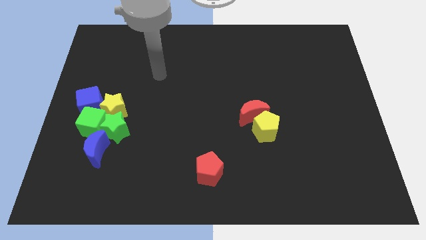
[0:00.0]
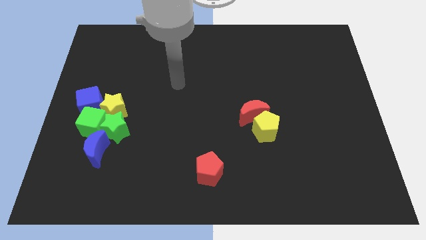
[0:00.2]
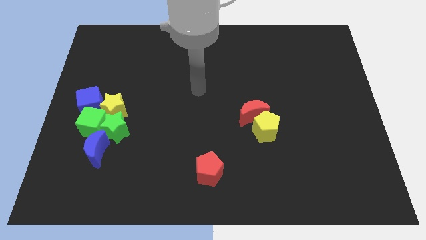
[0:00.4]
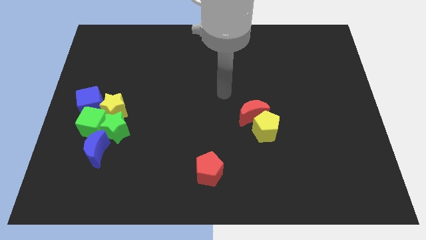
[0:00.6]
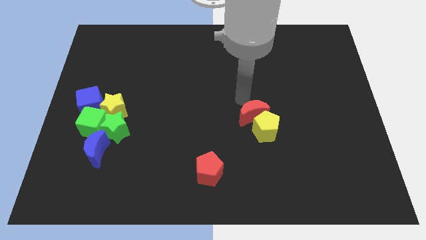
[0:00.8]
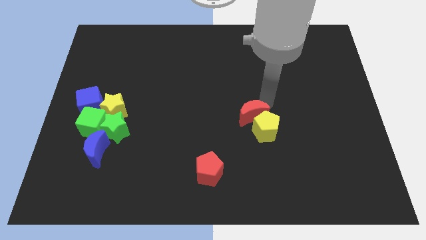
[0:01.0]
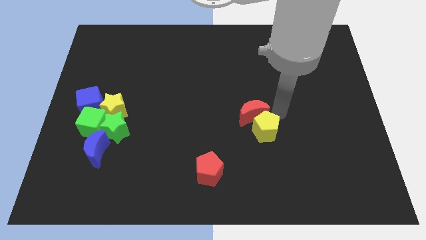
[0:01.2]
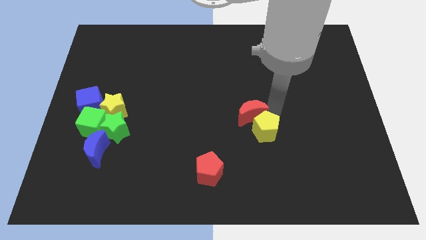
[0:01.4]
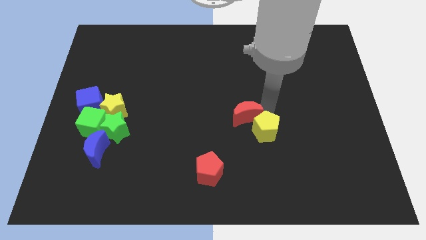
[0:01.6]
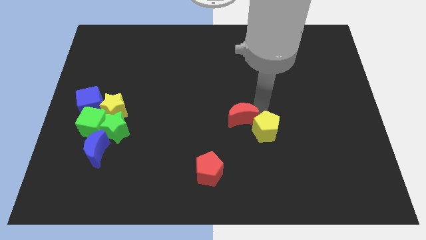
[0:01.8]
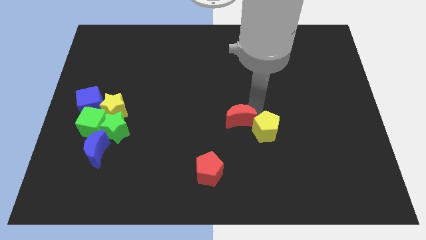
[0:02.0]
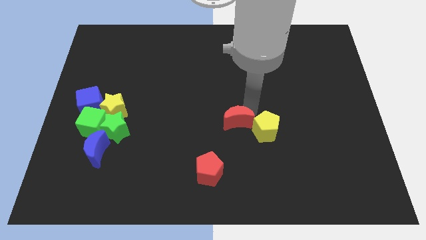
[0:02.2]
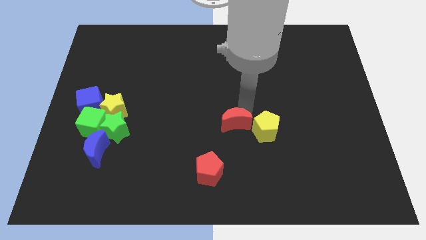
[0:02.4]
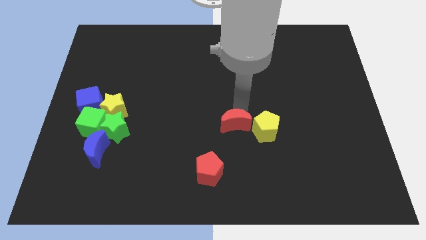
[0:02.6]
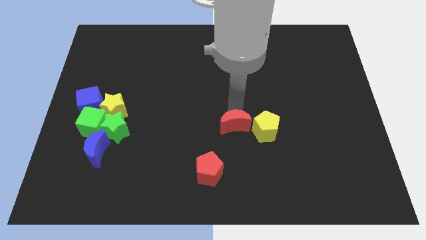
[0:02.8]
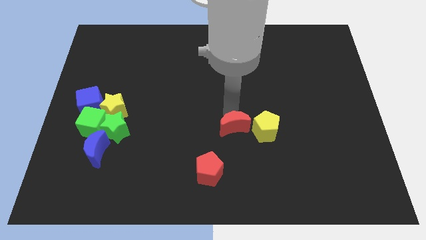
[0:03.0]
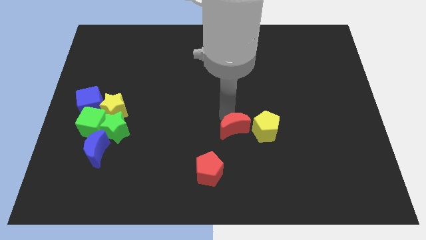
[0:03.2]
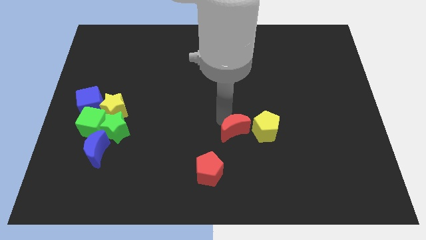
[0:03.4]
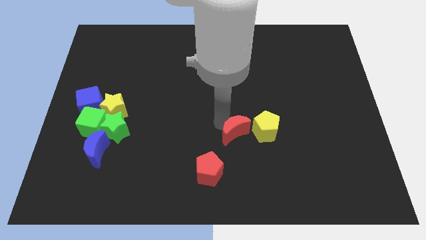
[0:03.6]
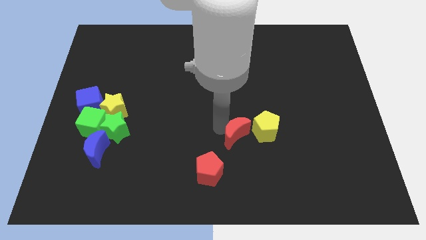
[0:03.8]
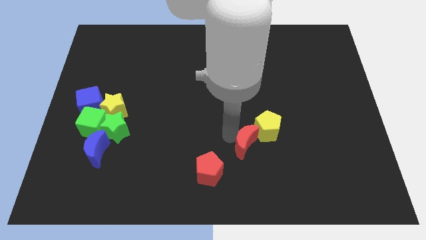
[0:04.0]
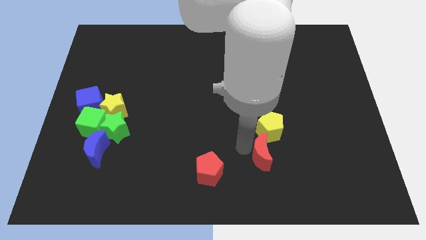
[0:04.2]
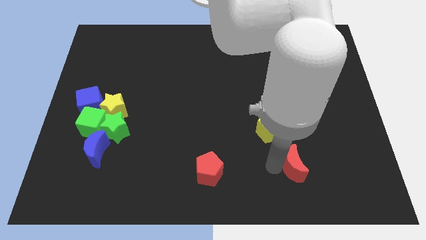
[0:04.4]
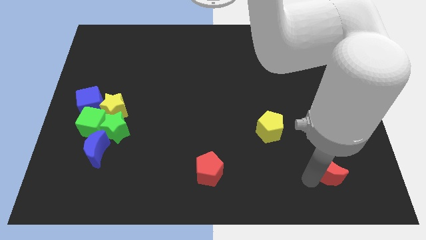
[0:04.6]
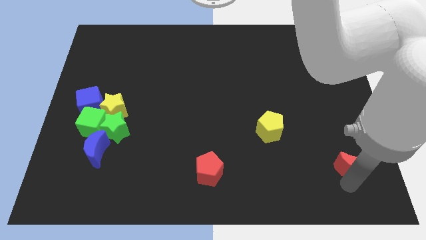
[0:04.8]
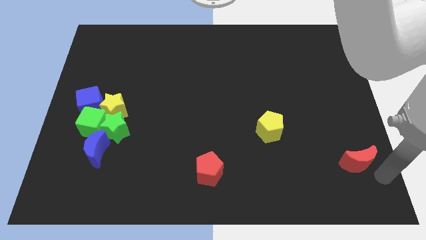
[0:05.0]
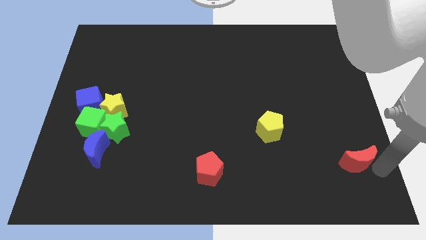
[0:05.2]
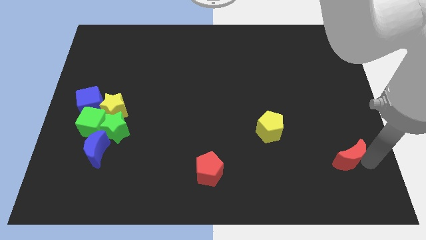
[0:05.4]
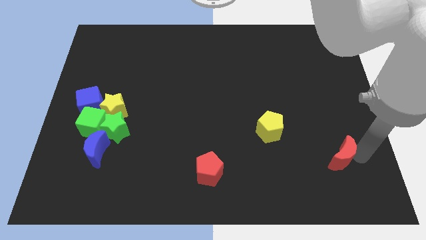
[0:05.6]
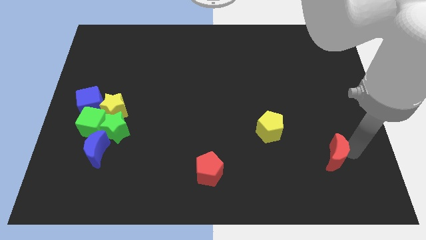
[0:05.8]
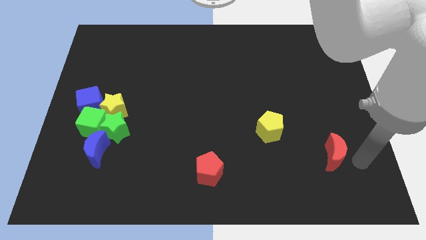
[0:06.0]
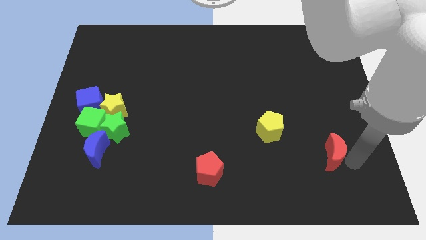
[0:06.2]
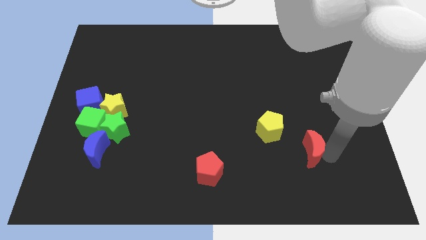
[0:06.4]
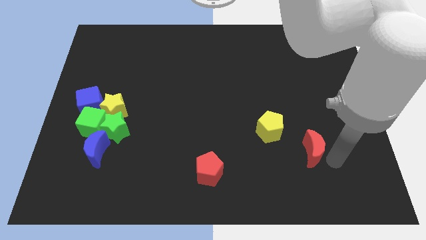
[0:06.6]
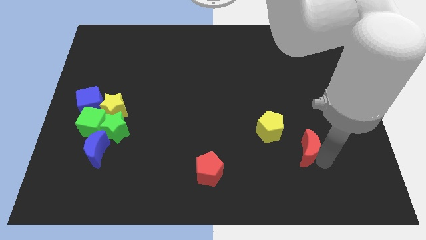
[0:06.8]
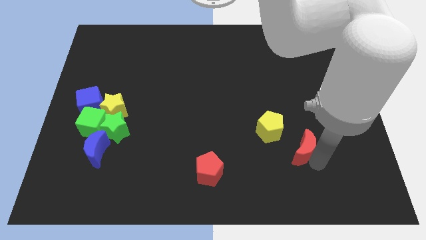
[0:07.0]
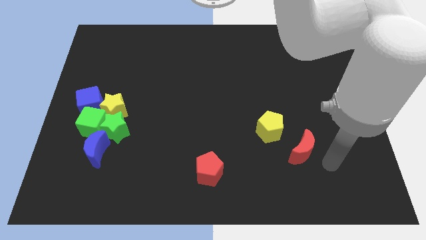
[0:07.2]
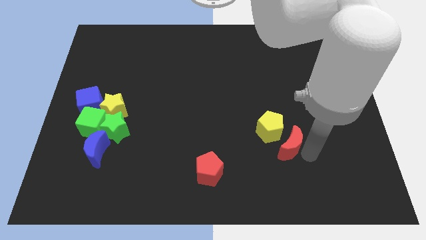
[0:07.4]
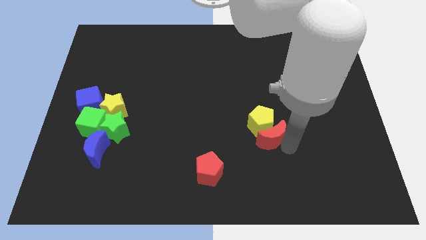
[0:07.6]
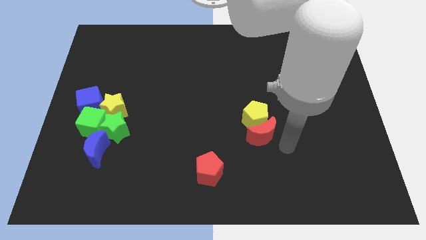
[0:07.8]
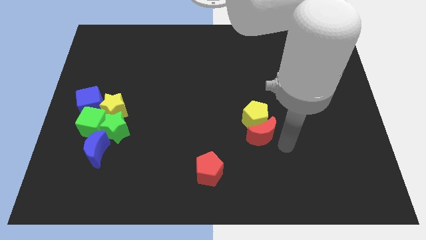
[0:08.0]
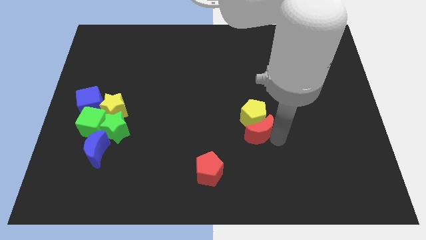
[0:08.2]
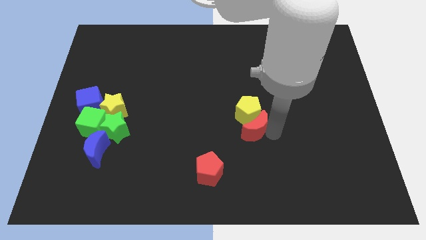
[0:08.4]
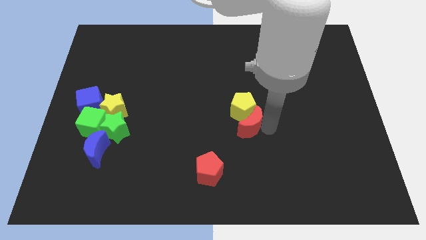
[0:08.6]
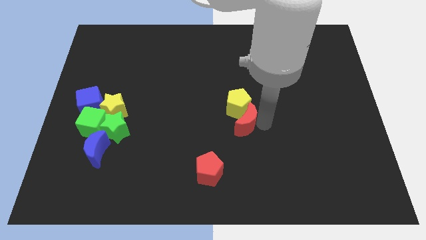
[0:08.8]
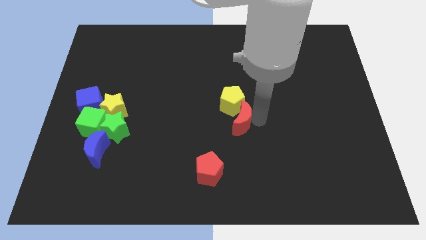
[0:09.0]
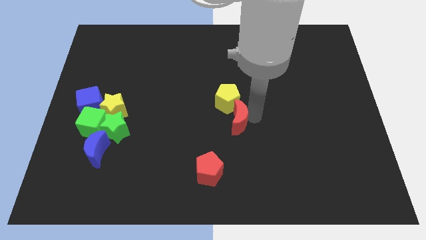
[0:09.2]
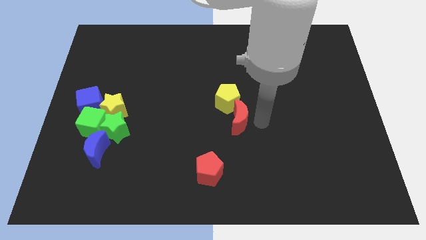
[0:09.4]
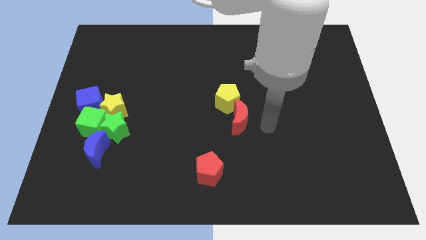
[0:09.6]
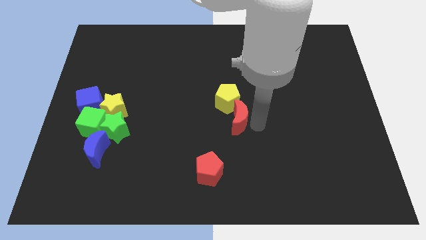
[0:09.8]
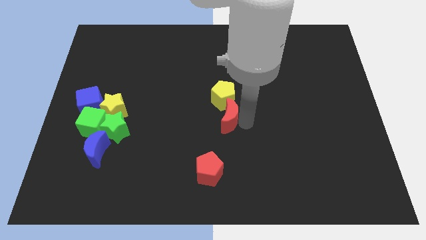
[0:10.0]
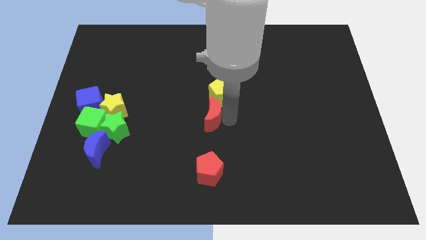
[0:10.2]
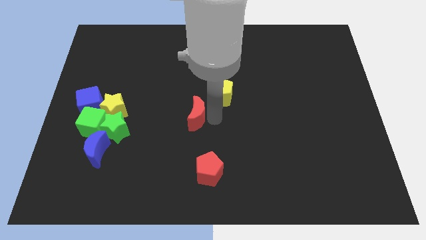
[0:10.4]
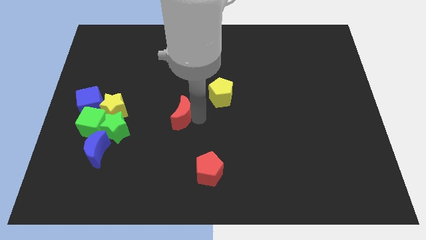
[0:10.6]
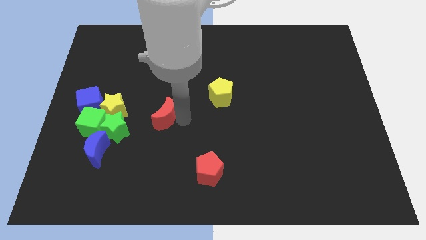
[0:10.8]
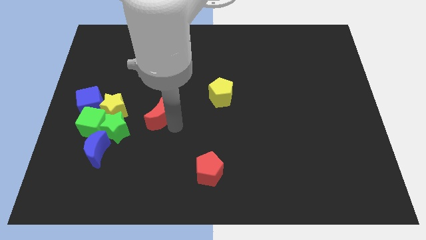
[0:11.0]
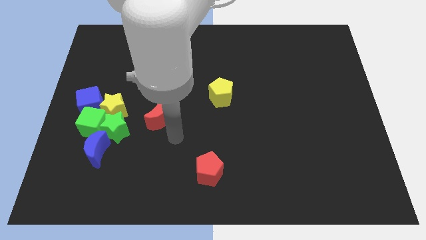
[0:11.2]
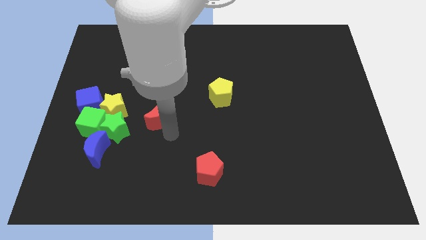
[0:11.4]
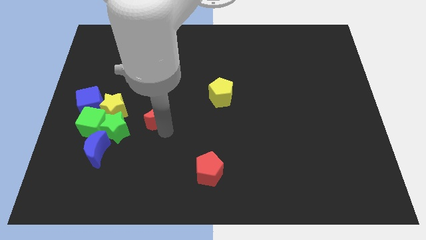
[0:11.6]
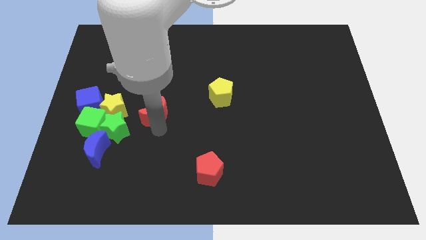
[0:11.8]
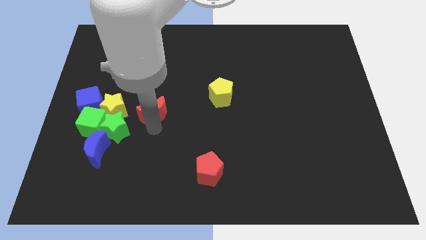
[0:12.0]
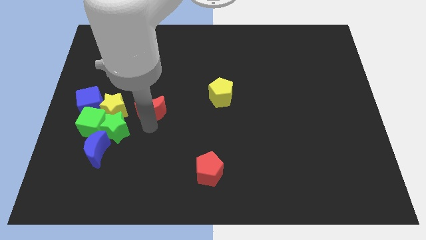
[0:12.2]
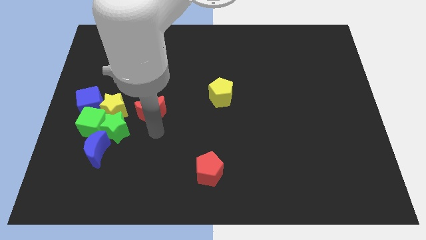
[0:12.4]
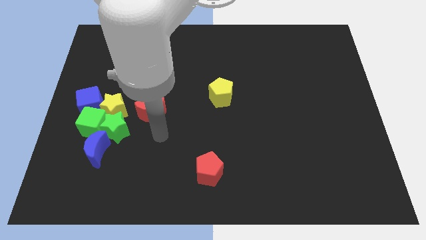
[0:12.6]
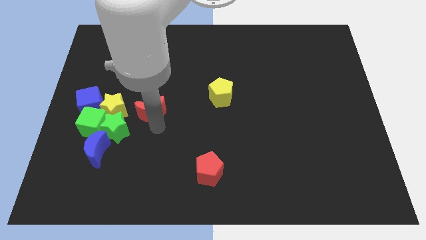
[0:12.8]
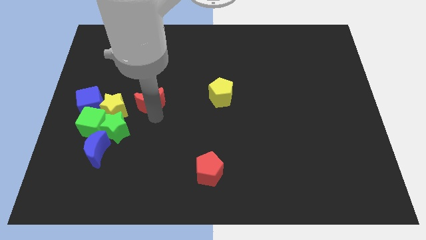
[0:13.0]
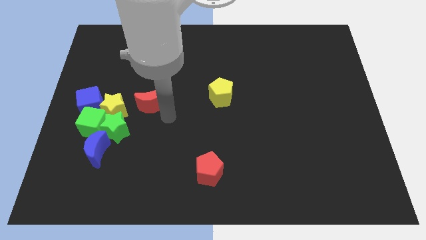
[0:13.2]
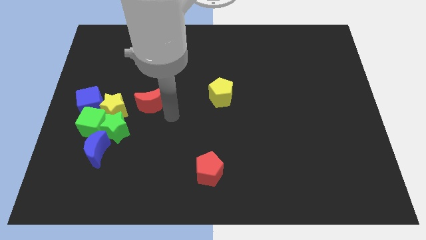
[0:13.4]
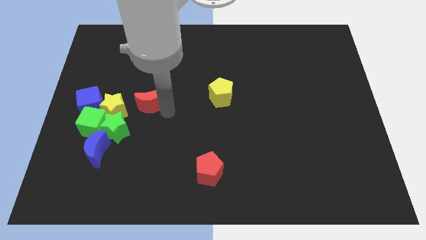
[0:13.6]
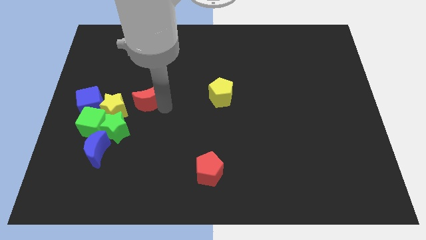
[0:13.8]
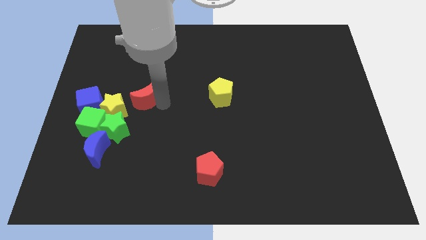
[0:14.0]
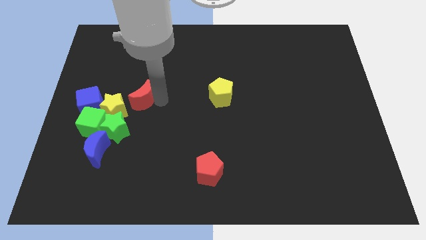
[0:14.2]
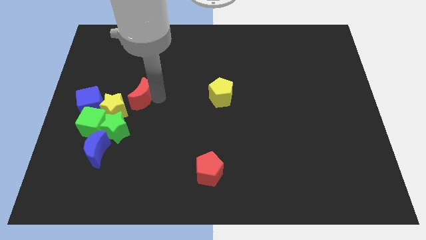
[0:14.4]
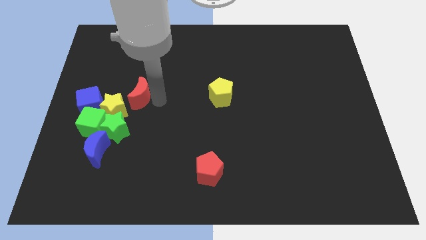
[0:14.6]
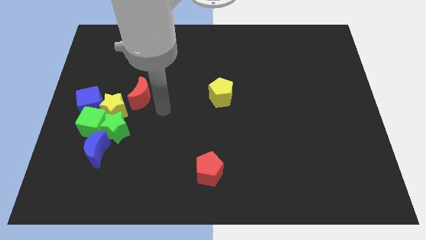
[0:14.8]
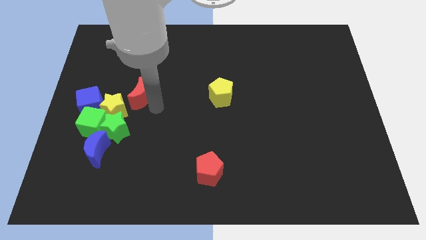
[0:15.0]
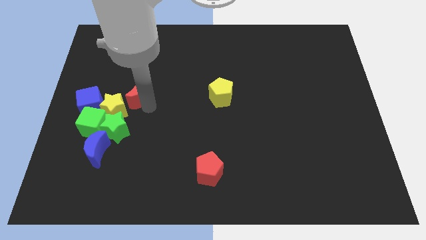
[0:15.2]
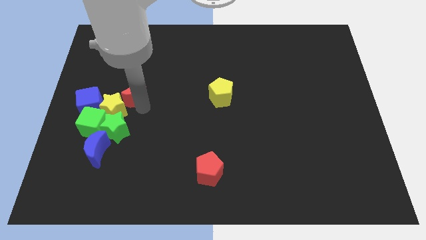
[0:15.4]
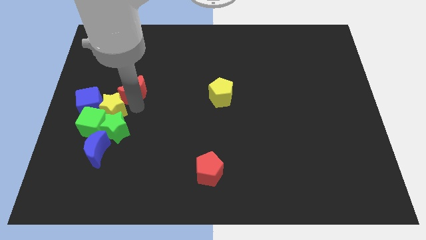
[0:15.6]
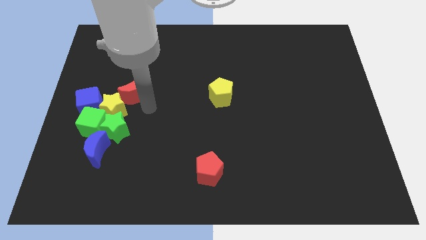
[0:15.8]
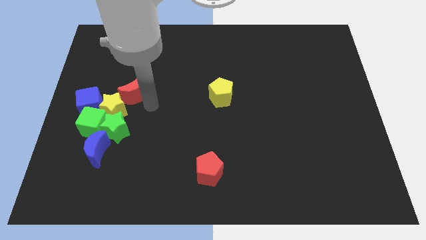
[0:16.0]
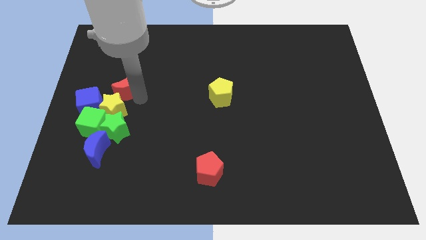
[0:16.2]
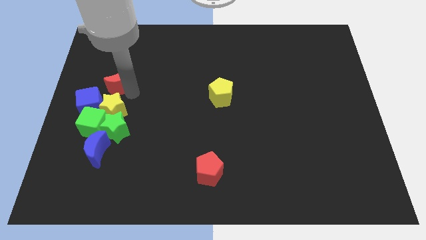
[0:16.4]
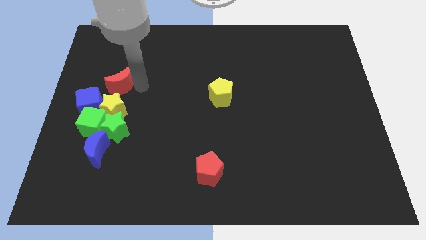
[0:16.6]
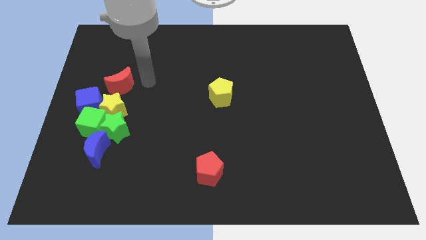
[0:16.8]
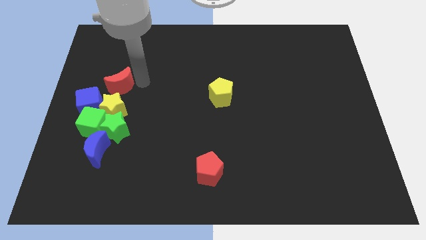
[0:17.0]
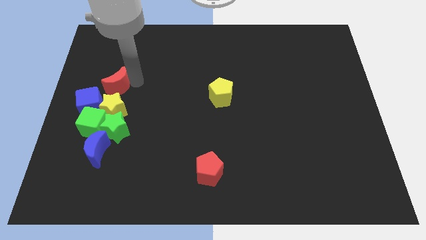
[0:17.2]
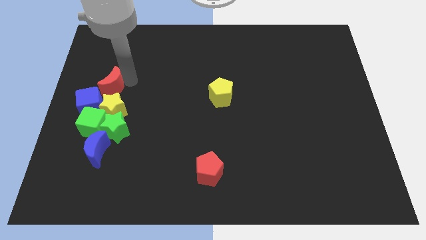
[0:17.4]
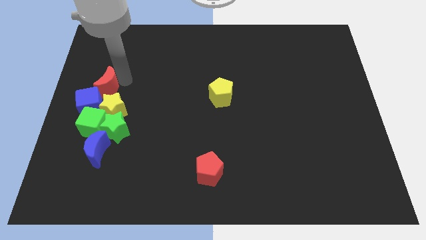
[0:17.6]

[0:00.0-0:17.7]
push the red moon to the left side of the board
